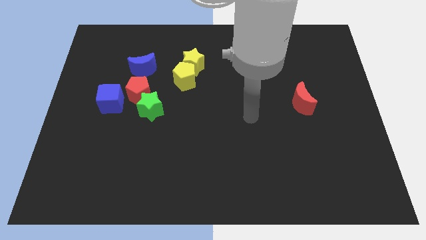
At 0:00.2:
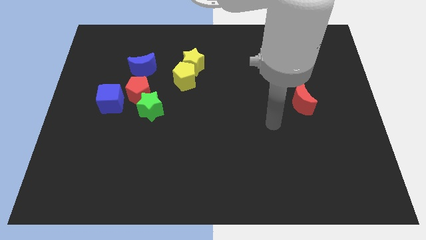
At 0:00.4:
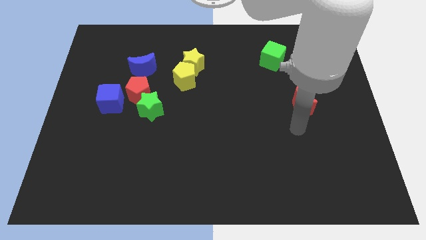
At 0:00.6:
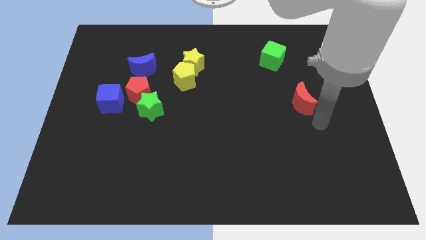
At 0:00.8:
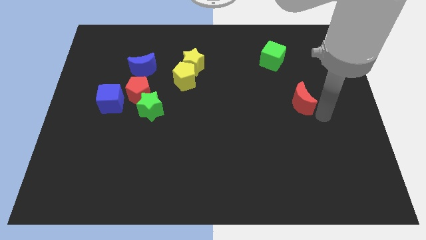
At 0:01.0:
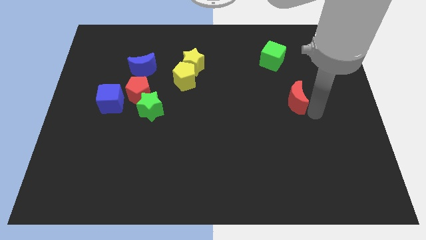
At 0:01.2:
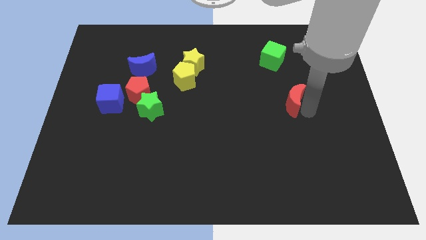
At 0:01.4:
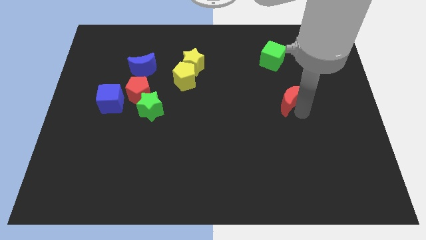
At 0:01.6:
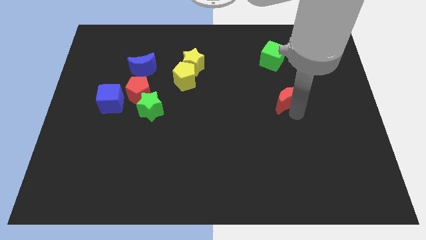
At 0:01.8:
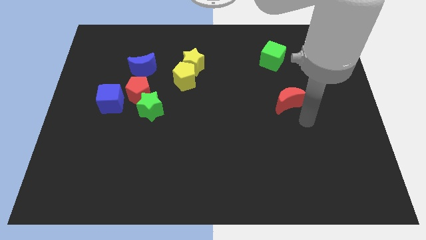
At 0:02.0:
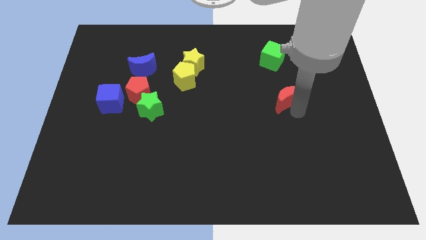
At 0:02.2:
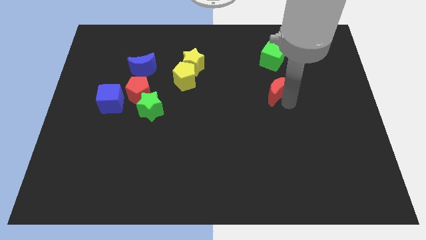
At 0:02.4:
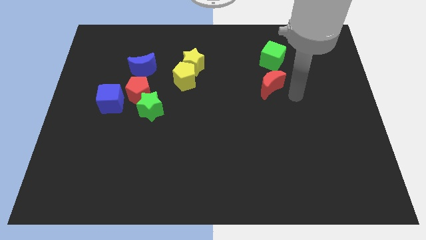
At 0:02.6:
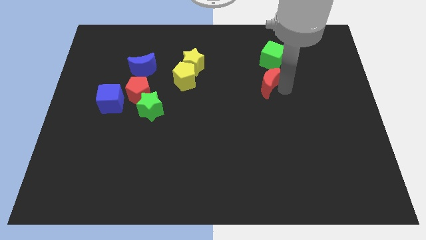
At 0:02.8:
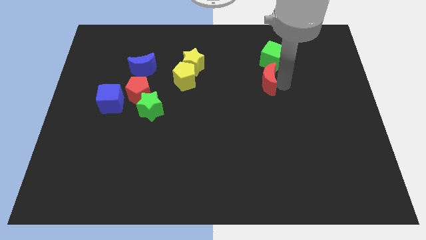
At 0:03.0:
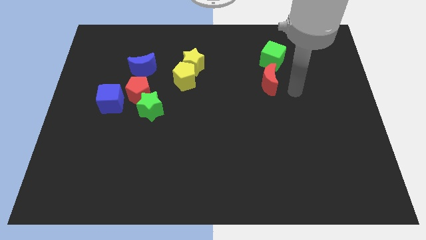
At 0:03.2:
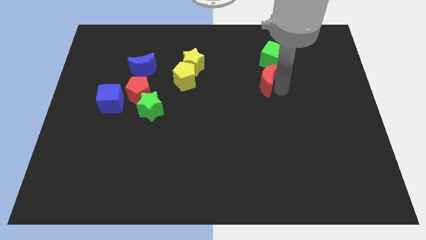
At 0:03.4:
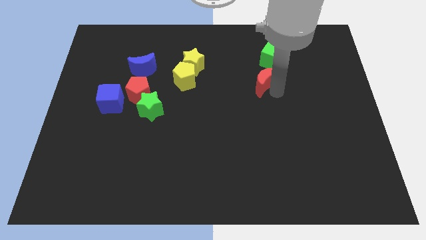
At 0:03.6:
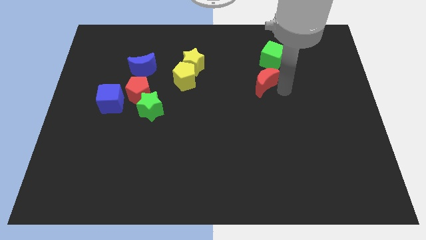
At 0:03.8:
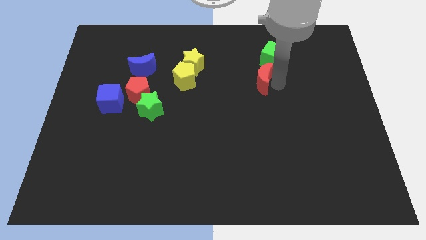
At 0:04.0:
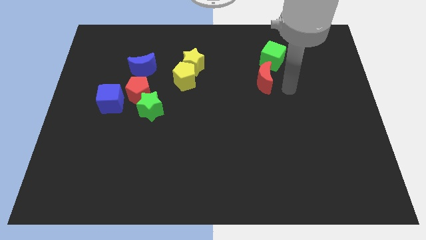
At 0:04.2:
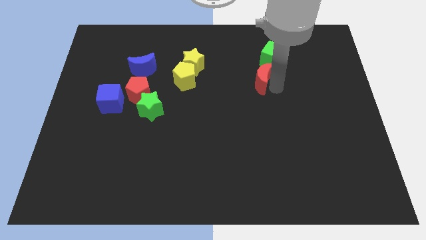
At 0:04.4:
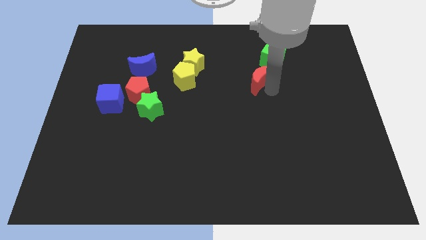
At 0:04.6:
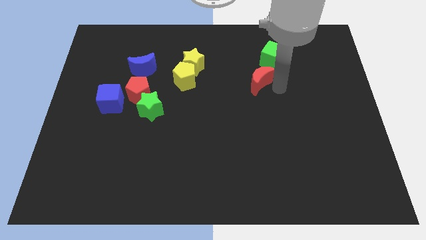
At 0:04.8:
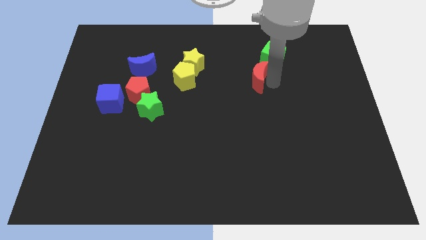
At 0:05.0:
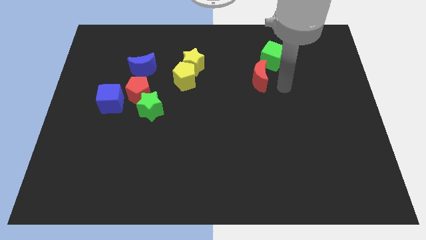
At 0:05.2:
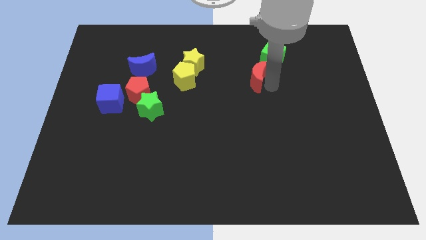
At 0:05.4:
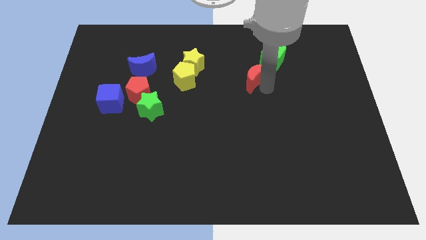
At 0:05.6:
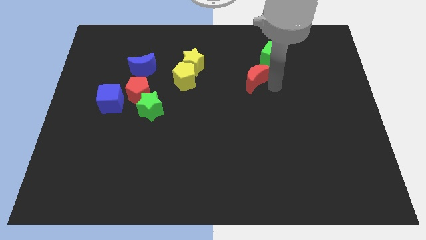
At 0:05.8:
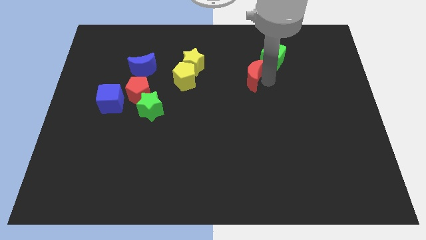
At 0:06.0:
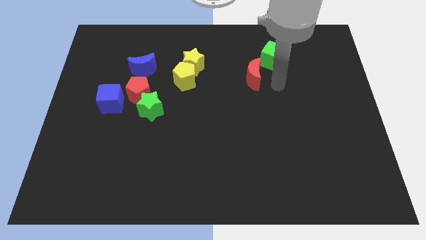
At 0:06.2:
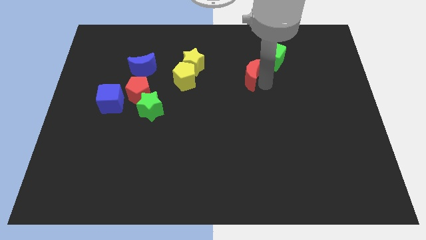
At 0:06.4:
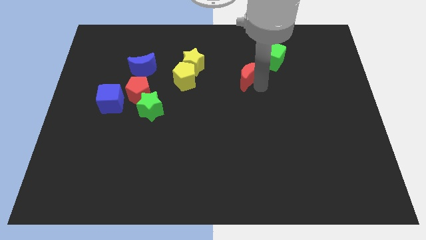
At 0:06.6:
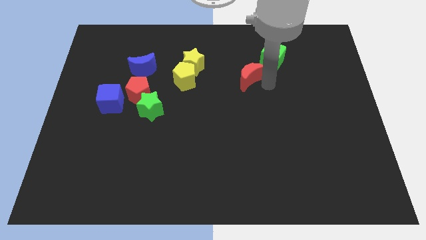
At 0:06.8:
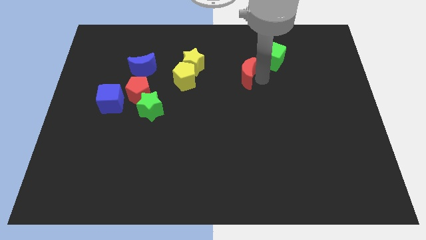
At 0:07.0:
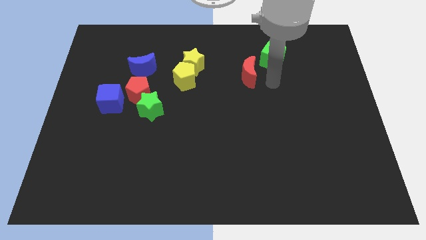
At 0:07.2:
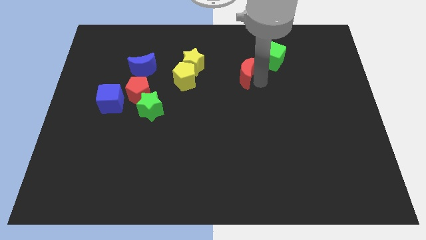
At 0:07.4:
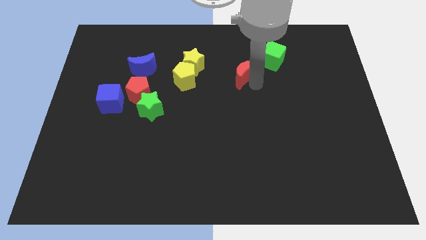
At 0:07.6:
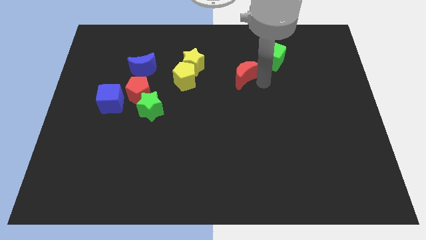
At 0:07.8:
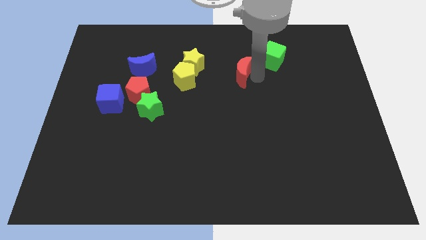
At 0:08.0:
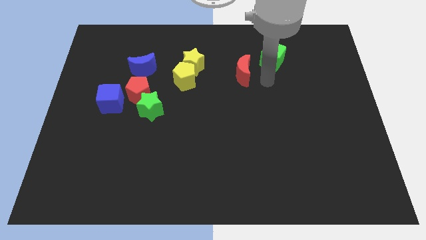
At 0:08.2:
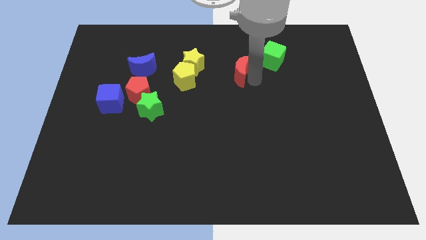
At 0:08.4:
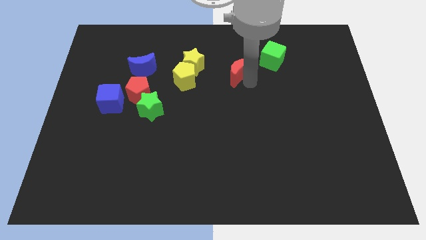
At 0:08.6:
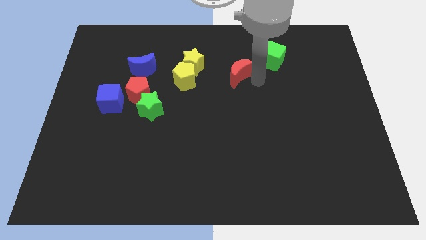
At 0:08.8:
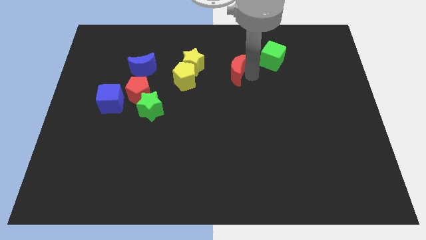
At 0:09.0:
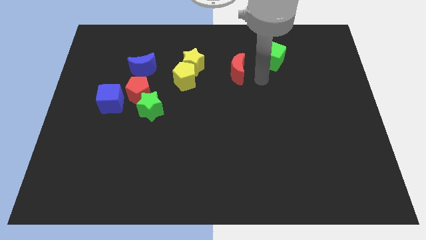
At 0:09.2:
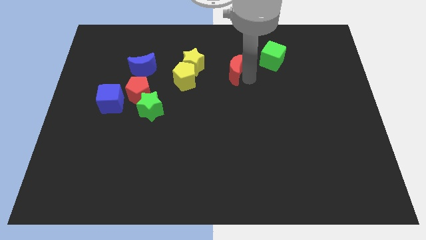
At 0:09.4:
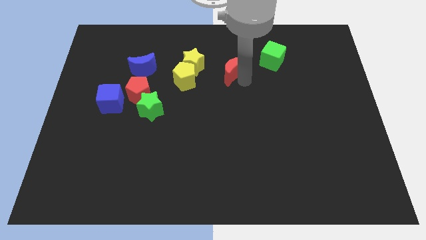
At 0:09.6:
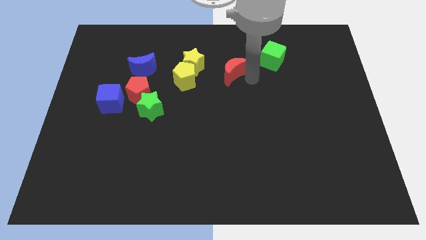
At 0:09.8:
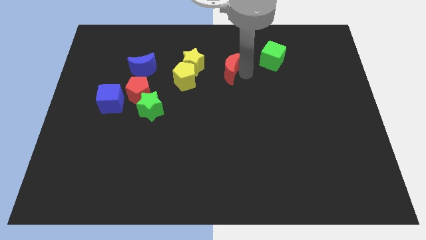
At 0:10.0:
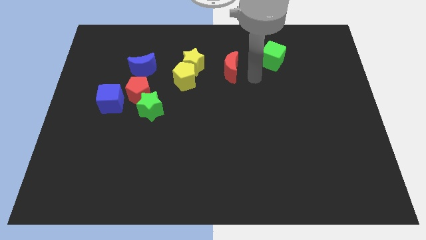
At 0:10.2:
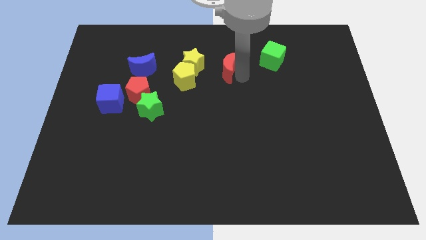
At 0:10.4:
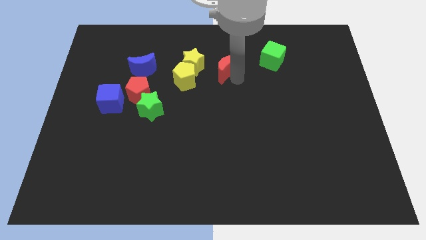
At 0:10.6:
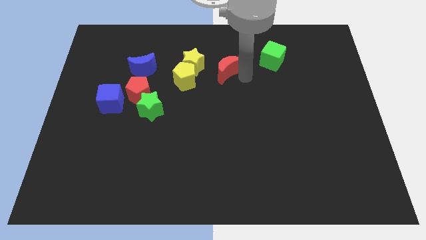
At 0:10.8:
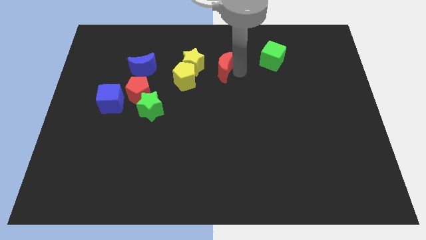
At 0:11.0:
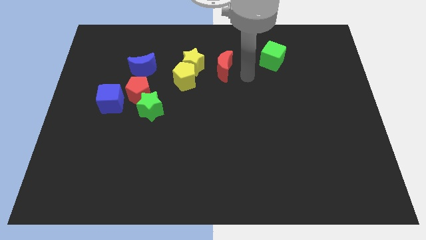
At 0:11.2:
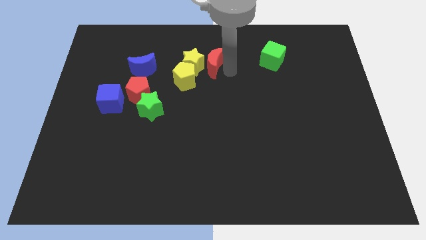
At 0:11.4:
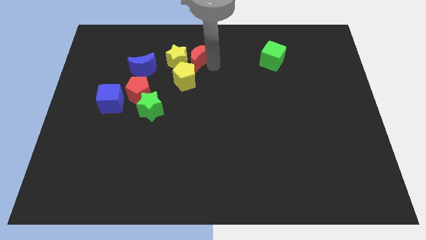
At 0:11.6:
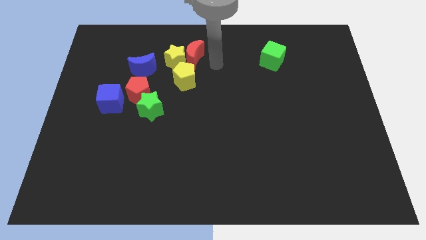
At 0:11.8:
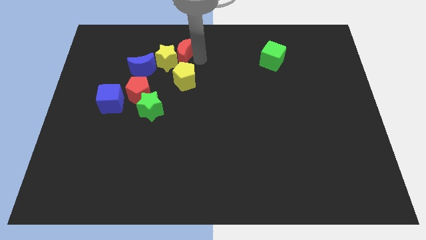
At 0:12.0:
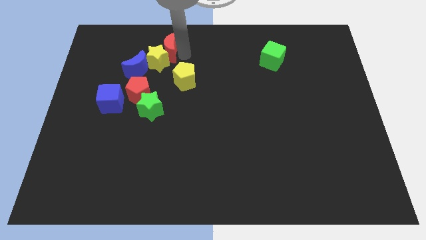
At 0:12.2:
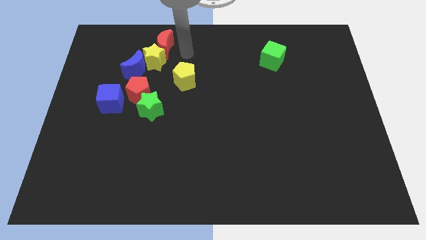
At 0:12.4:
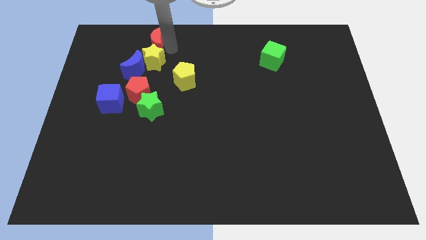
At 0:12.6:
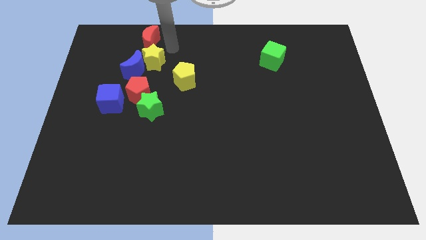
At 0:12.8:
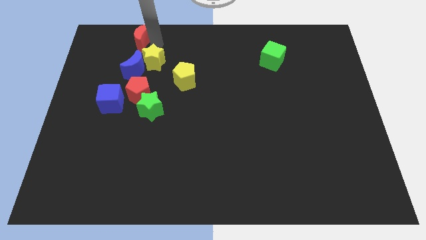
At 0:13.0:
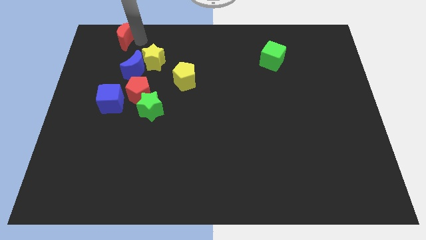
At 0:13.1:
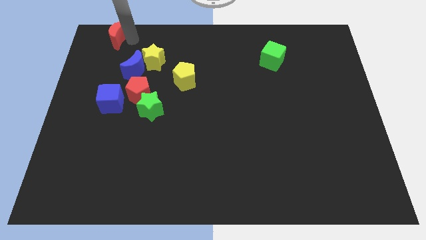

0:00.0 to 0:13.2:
put the red moon to the top left of the board
